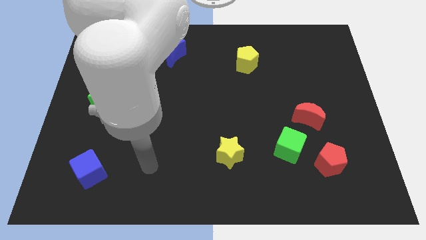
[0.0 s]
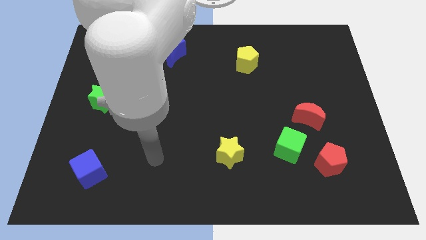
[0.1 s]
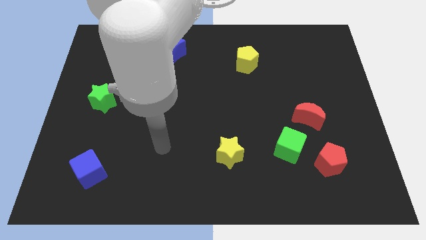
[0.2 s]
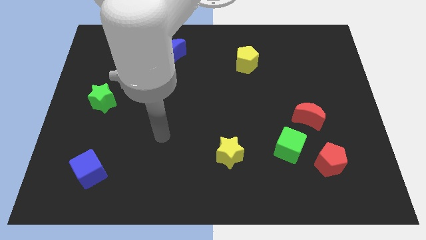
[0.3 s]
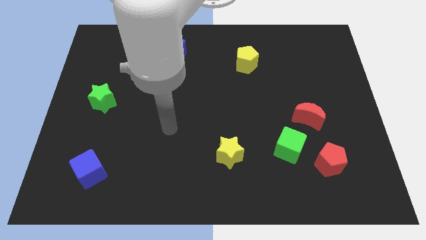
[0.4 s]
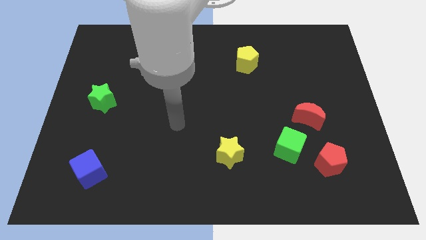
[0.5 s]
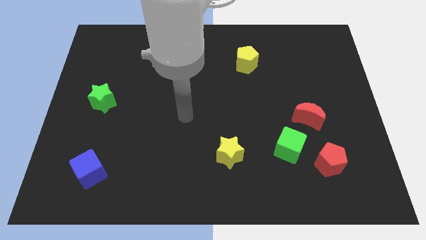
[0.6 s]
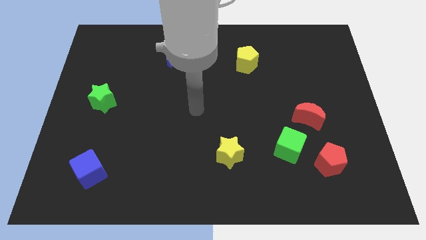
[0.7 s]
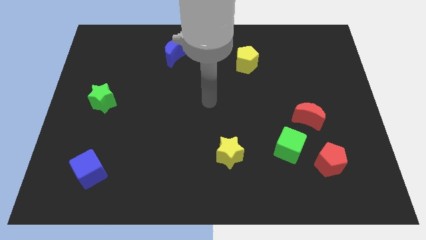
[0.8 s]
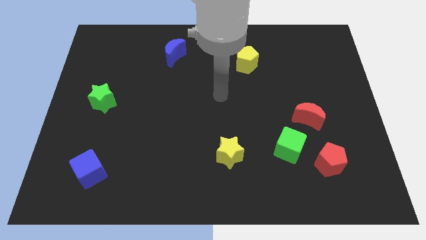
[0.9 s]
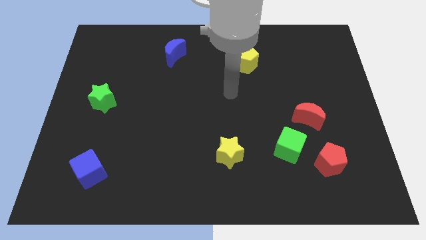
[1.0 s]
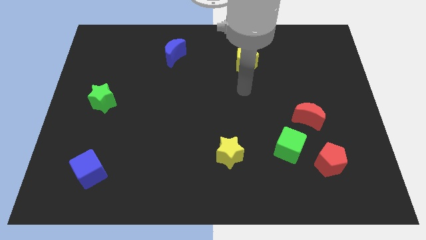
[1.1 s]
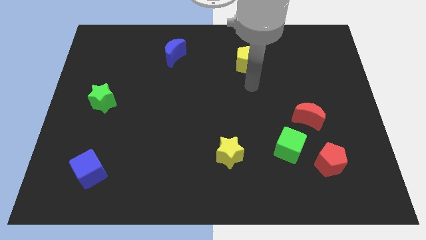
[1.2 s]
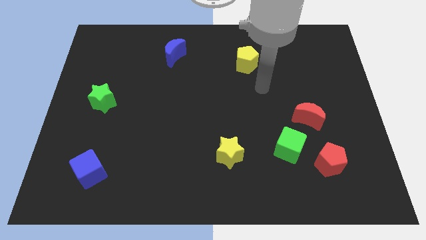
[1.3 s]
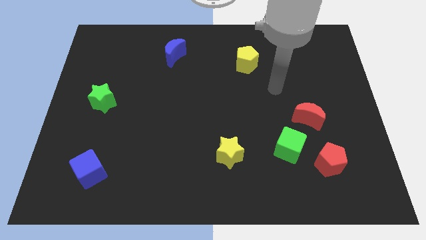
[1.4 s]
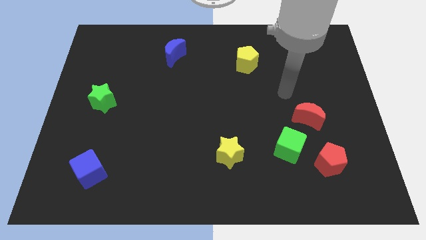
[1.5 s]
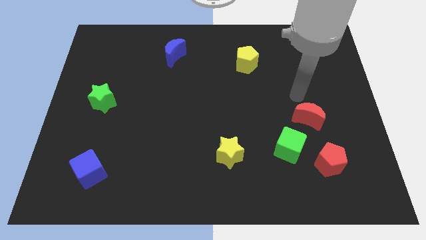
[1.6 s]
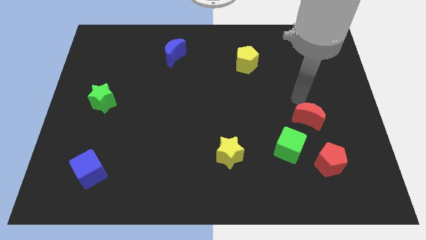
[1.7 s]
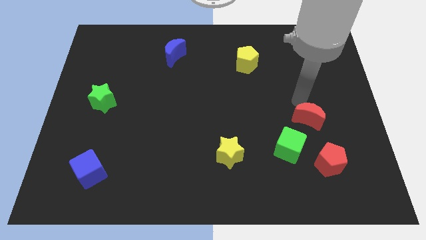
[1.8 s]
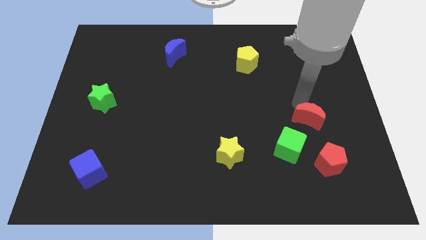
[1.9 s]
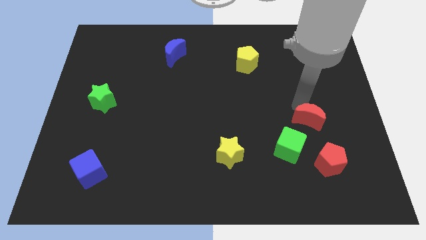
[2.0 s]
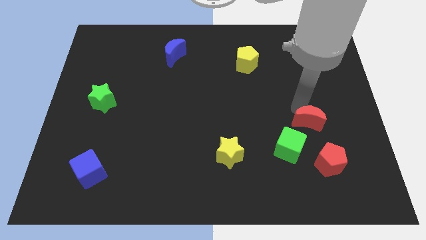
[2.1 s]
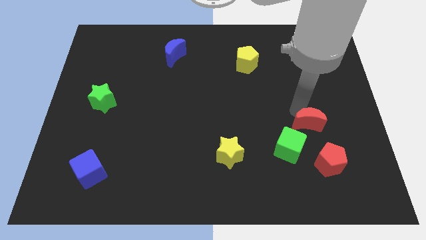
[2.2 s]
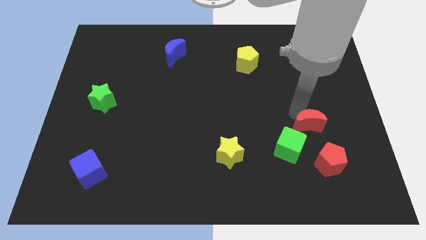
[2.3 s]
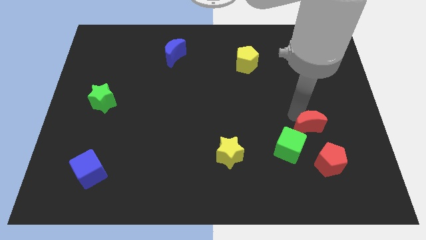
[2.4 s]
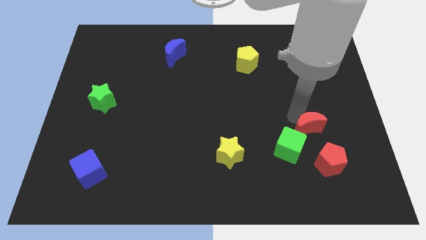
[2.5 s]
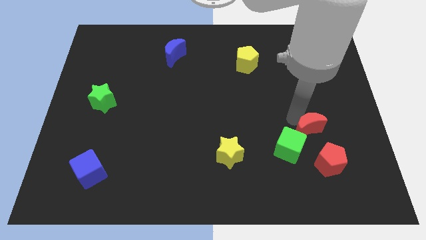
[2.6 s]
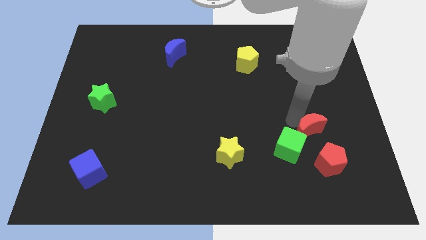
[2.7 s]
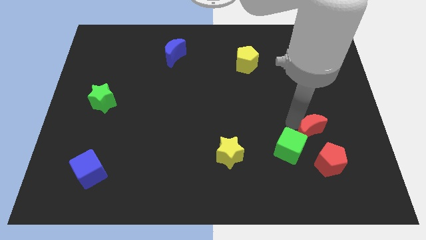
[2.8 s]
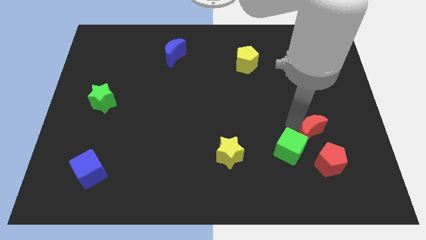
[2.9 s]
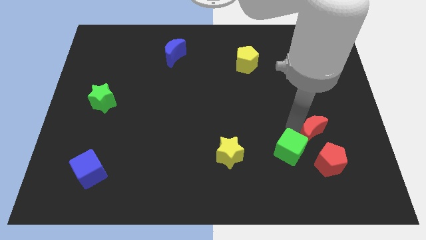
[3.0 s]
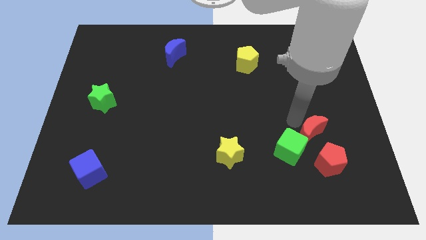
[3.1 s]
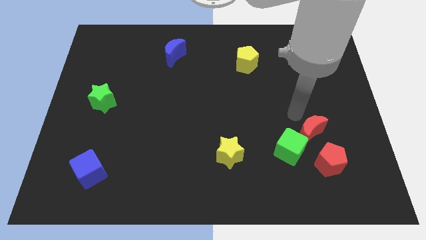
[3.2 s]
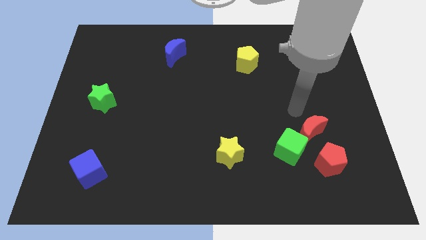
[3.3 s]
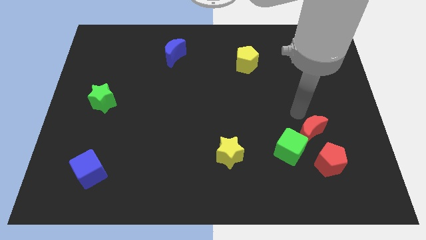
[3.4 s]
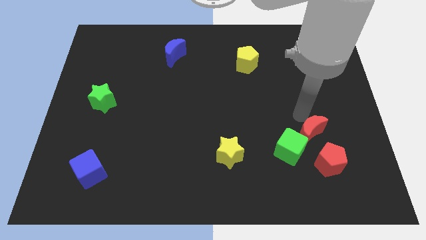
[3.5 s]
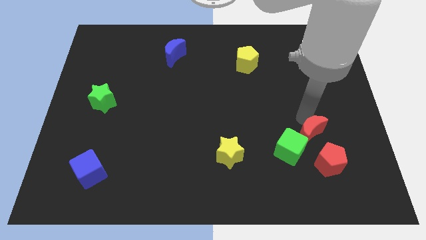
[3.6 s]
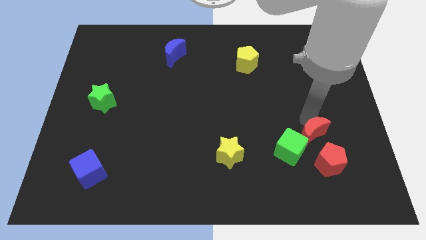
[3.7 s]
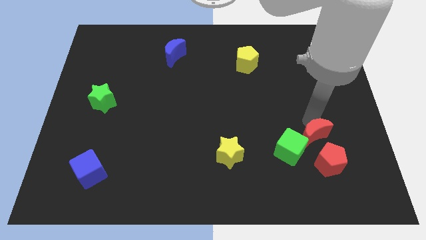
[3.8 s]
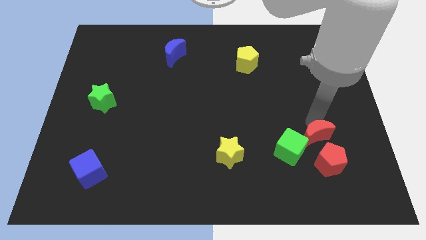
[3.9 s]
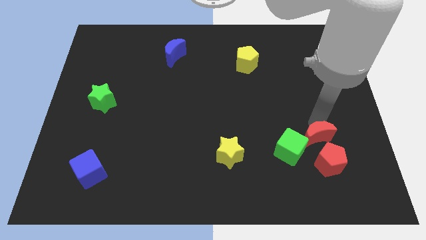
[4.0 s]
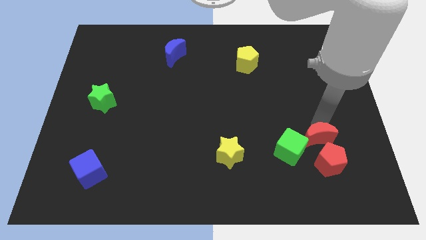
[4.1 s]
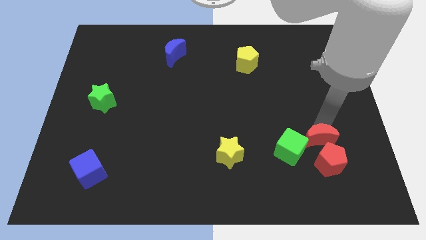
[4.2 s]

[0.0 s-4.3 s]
push the red moon to the red pentagon

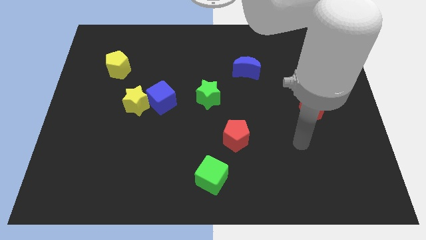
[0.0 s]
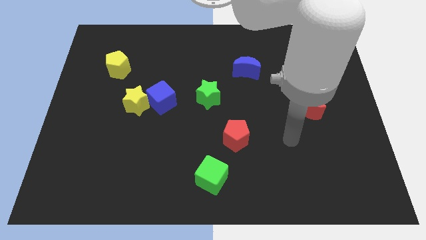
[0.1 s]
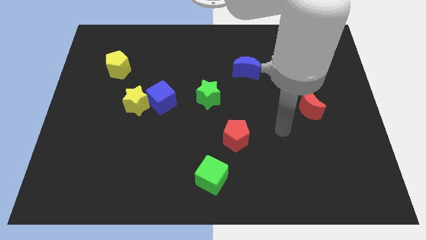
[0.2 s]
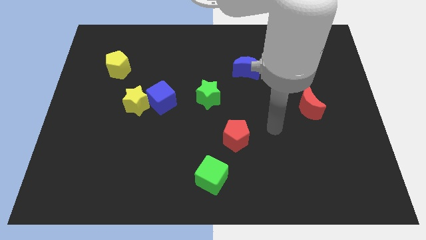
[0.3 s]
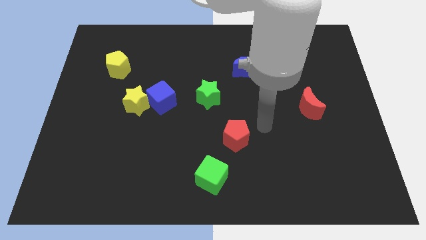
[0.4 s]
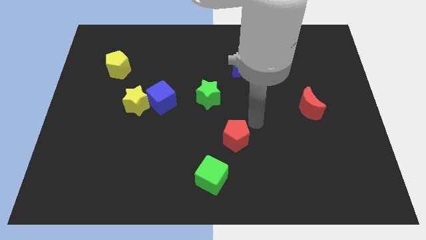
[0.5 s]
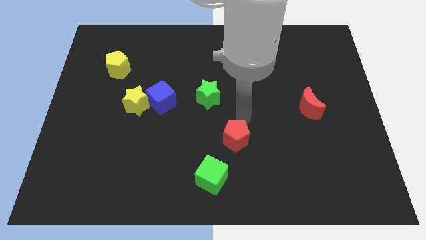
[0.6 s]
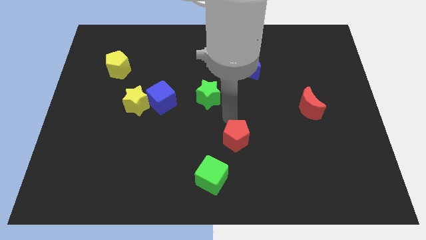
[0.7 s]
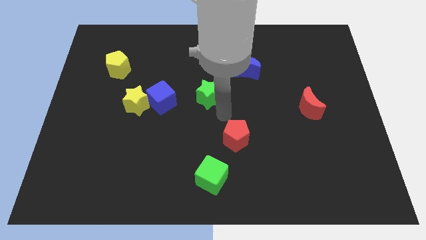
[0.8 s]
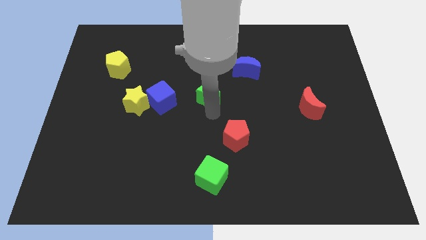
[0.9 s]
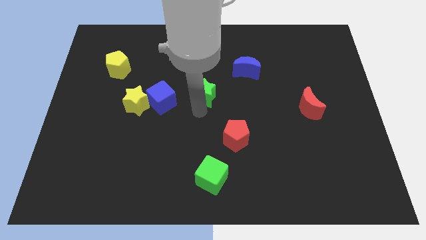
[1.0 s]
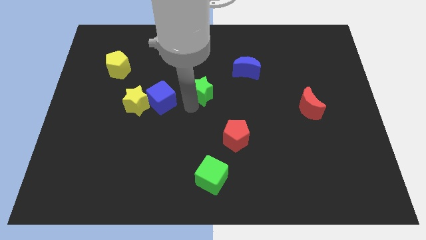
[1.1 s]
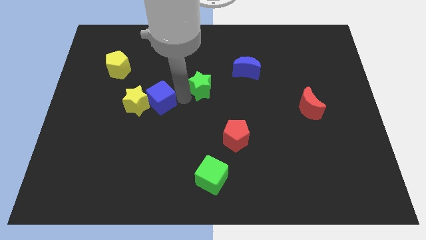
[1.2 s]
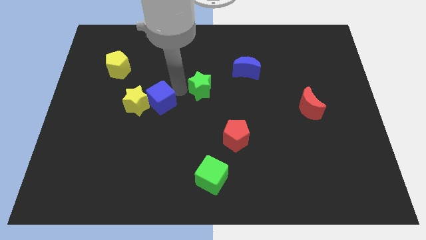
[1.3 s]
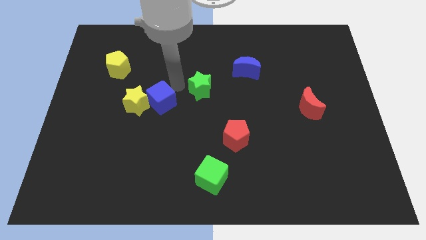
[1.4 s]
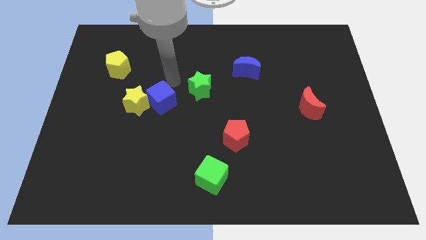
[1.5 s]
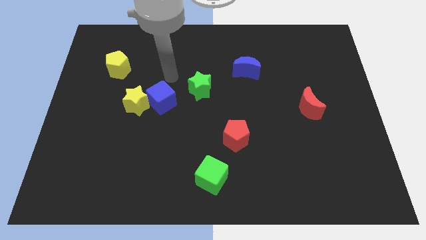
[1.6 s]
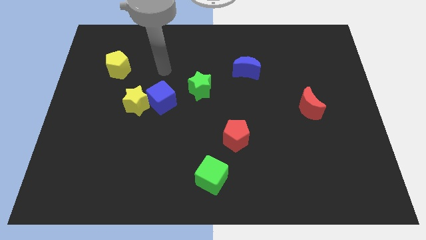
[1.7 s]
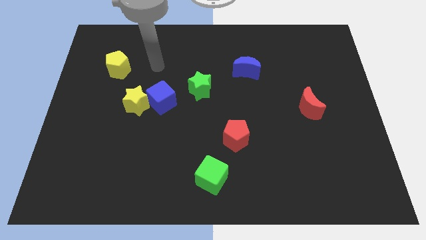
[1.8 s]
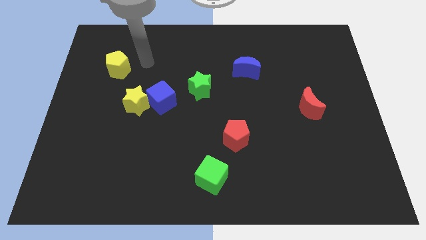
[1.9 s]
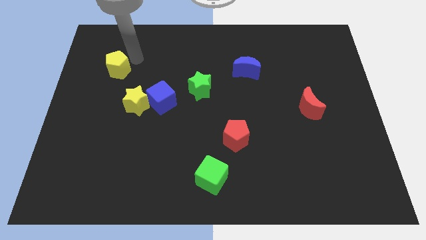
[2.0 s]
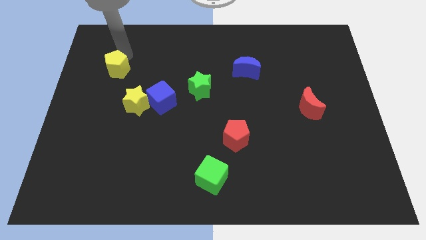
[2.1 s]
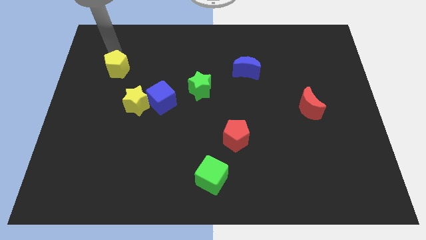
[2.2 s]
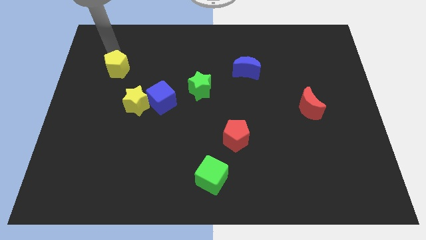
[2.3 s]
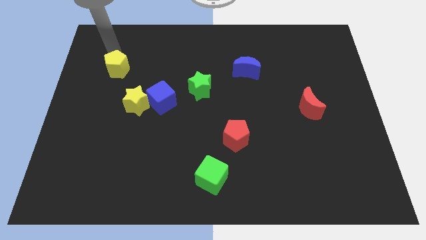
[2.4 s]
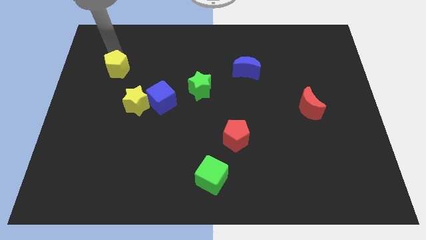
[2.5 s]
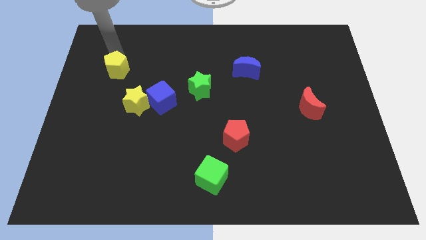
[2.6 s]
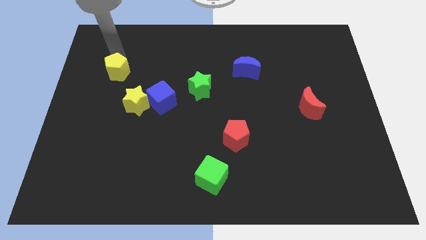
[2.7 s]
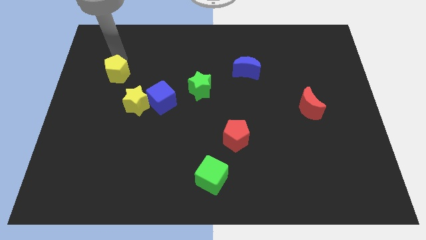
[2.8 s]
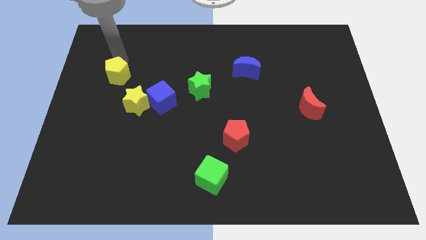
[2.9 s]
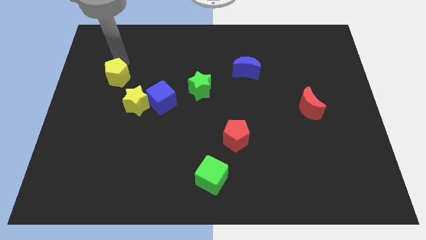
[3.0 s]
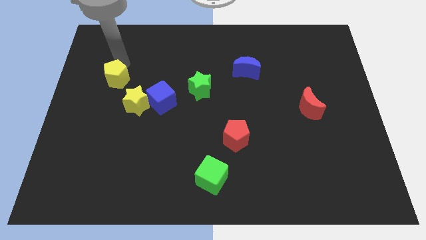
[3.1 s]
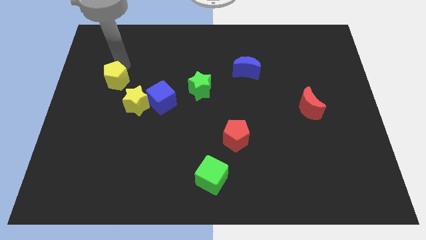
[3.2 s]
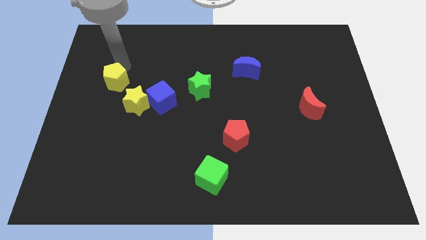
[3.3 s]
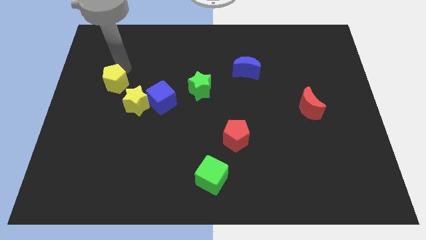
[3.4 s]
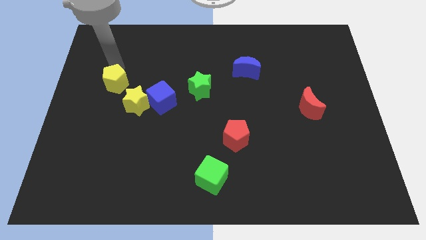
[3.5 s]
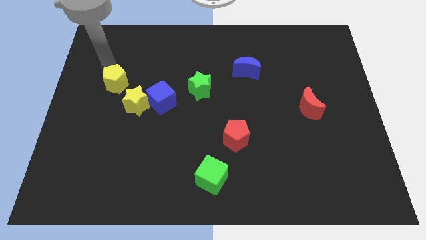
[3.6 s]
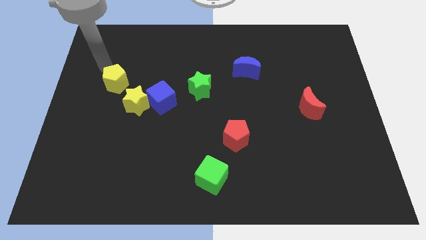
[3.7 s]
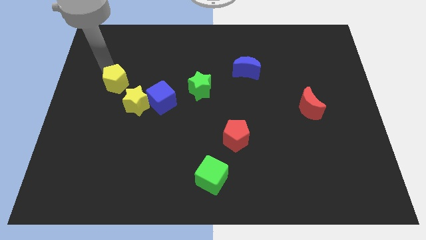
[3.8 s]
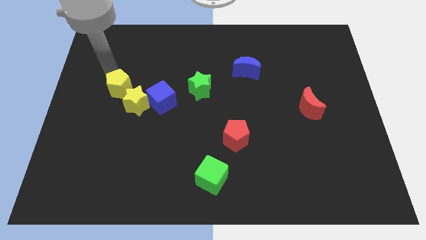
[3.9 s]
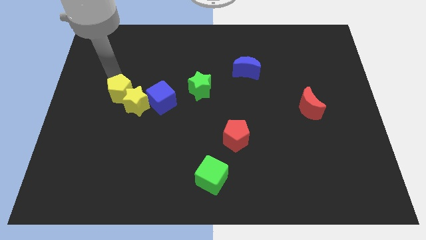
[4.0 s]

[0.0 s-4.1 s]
move the yellow pentagon to the yellow star
